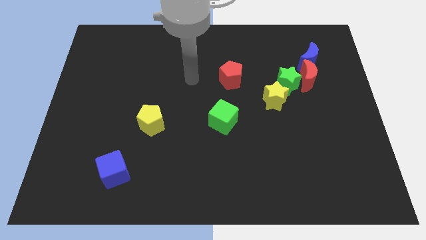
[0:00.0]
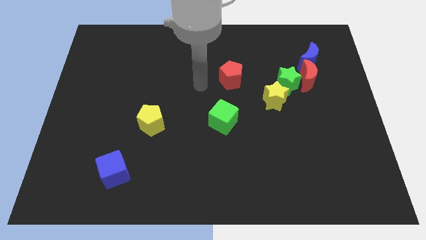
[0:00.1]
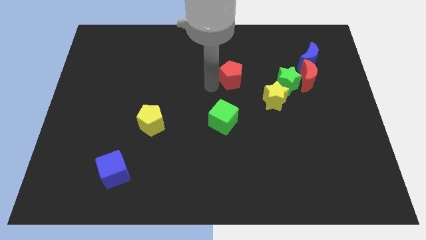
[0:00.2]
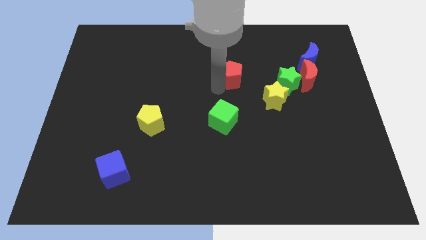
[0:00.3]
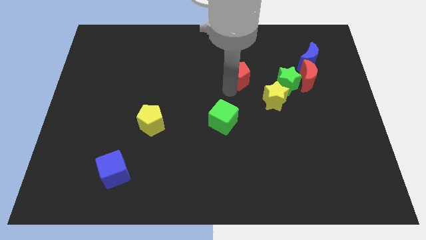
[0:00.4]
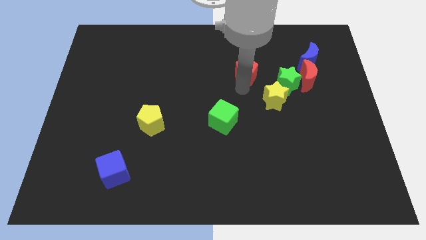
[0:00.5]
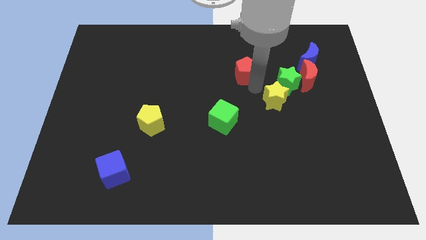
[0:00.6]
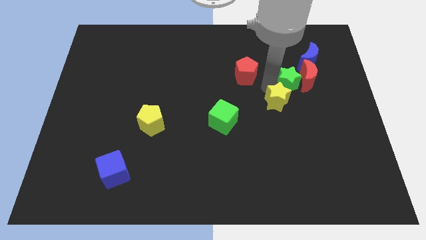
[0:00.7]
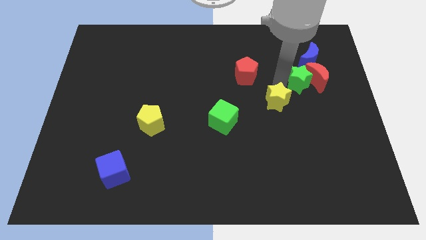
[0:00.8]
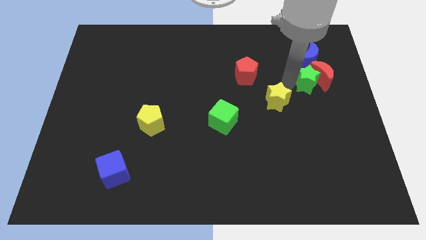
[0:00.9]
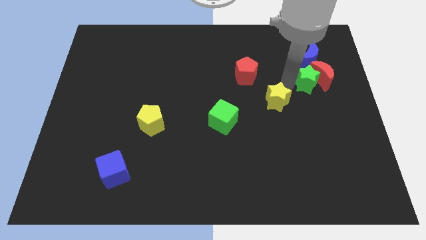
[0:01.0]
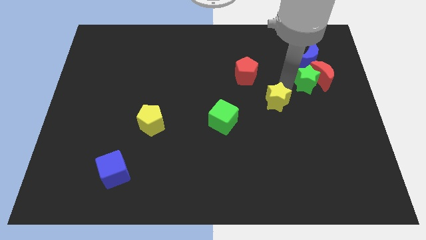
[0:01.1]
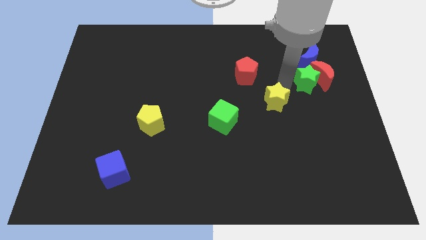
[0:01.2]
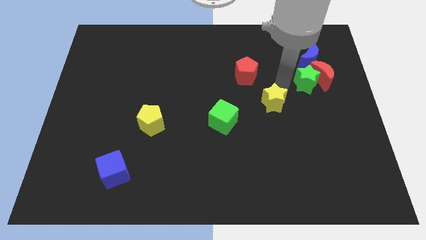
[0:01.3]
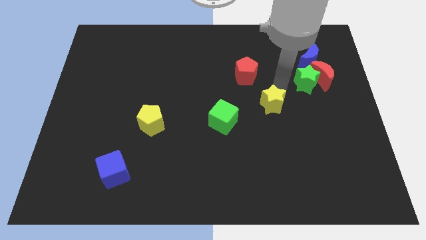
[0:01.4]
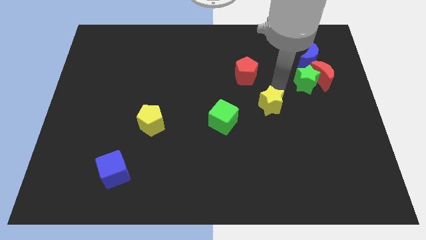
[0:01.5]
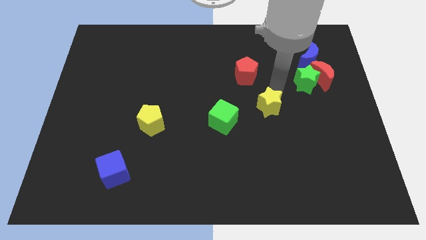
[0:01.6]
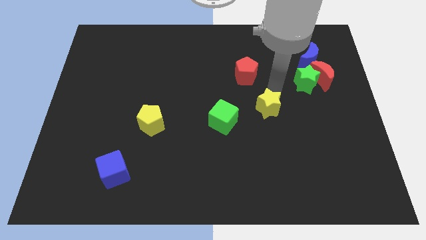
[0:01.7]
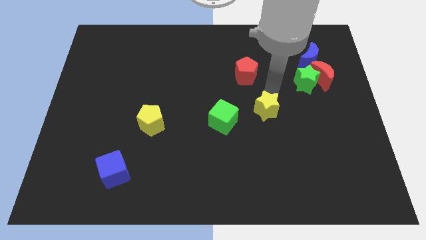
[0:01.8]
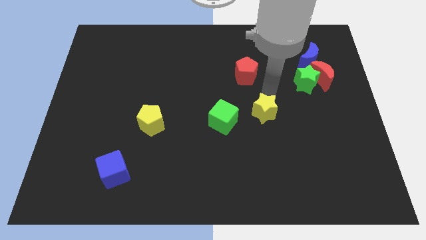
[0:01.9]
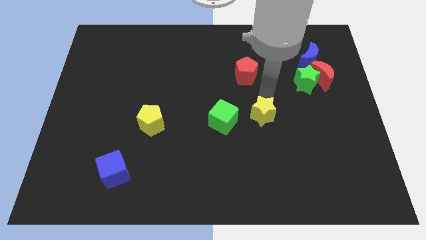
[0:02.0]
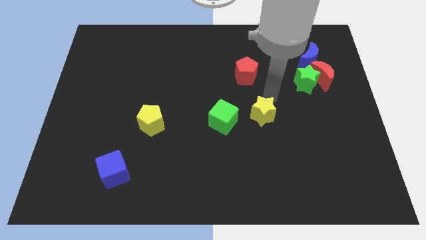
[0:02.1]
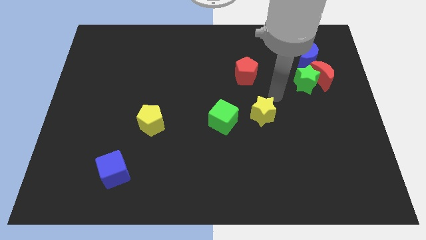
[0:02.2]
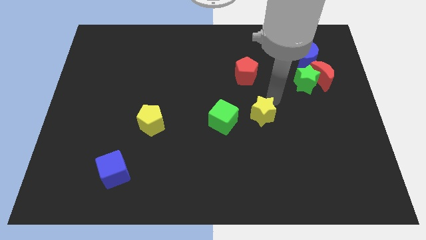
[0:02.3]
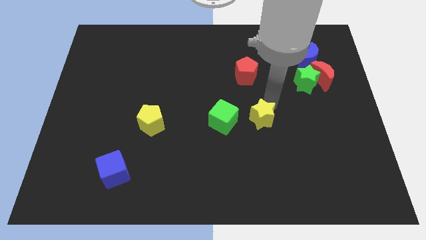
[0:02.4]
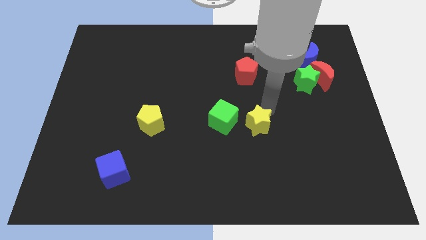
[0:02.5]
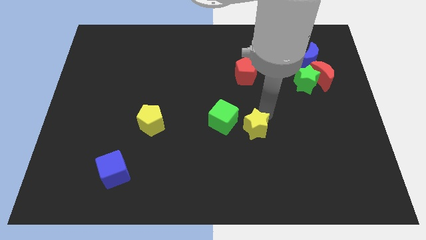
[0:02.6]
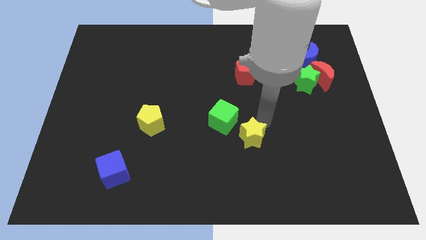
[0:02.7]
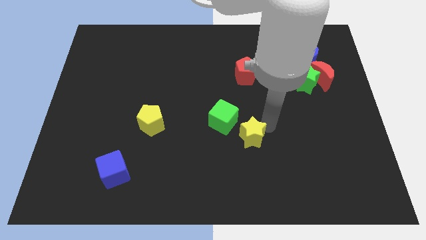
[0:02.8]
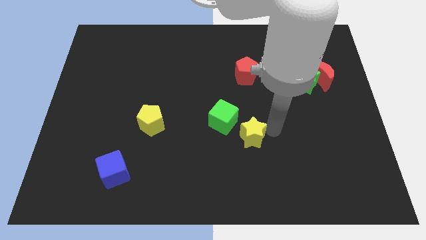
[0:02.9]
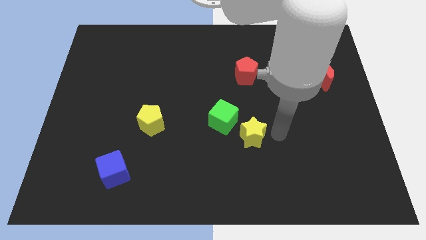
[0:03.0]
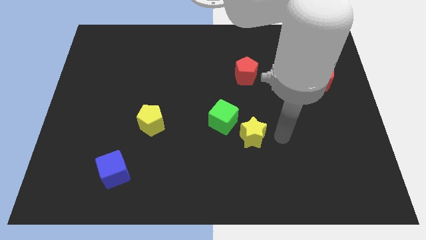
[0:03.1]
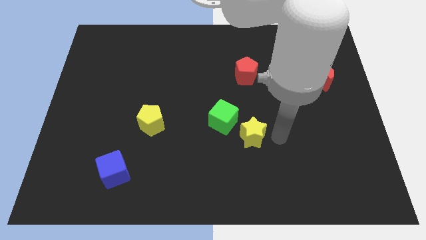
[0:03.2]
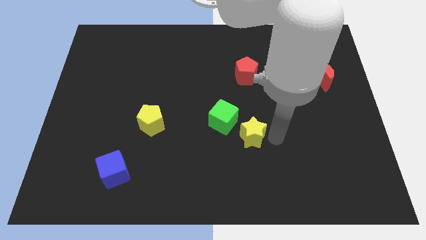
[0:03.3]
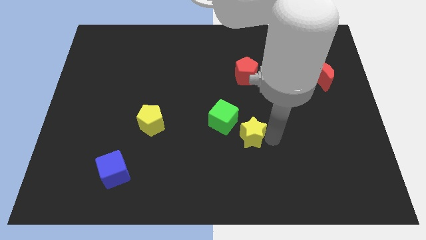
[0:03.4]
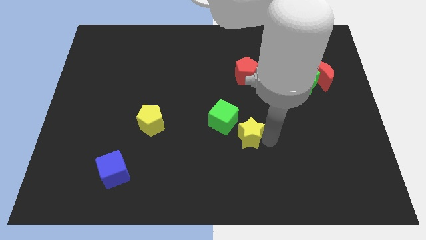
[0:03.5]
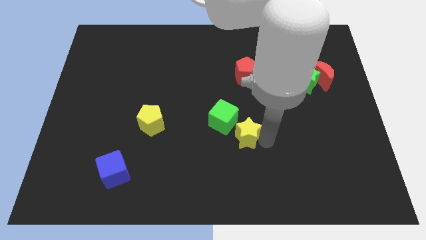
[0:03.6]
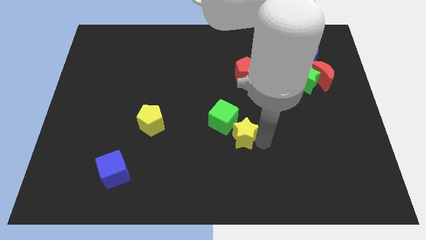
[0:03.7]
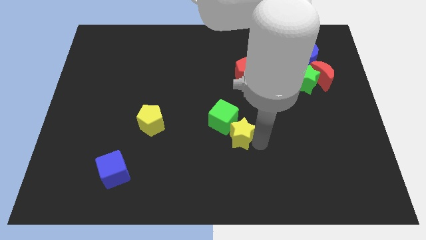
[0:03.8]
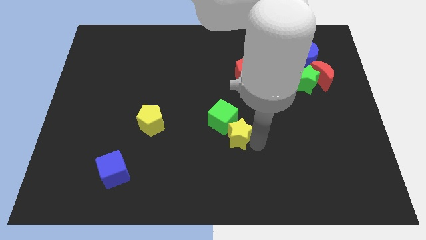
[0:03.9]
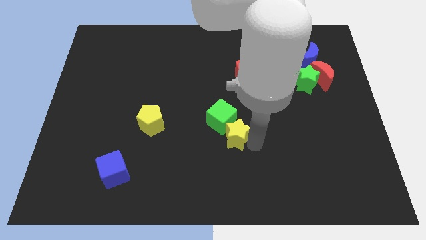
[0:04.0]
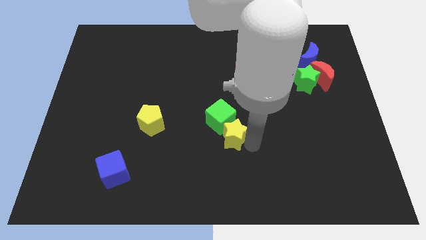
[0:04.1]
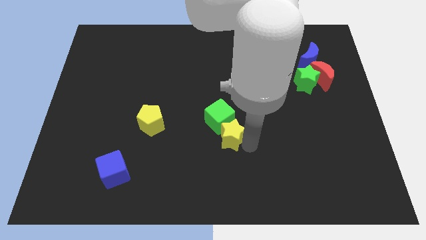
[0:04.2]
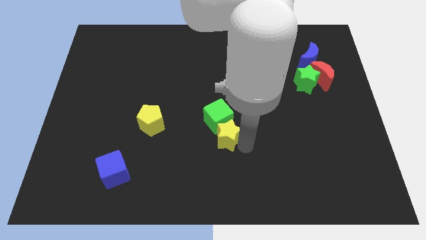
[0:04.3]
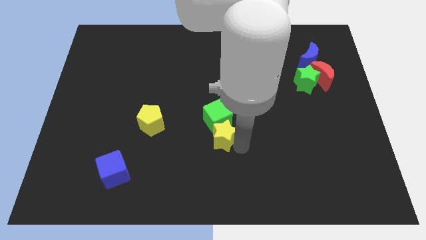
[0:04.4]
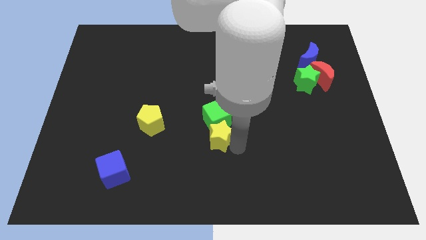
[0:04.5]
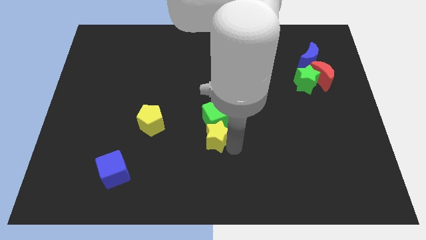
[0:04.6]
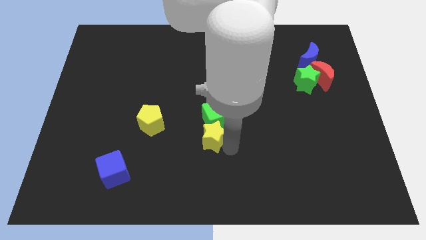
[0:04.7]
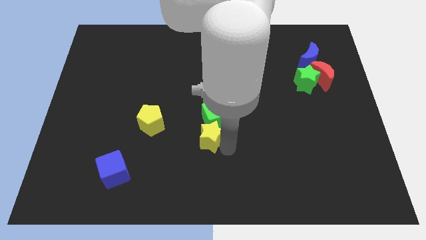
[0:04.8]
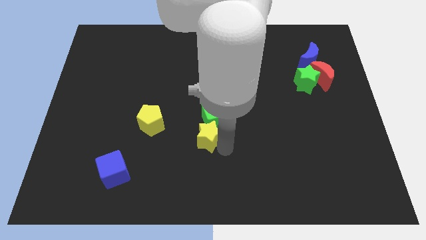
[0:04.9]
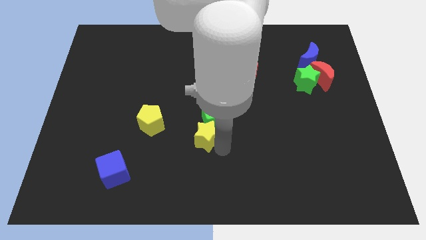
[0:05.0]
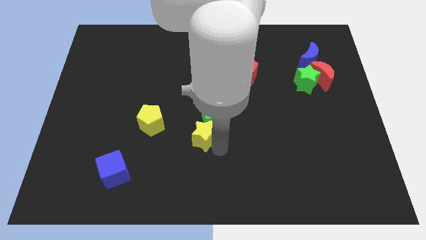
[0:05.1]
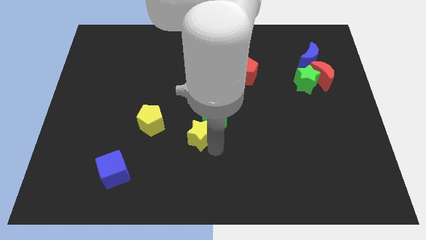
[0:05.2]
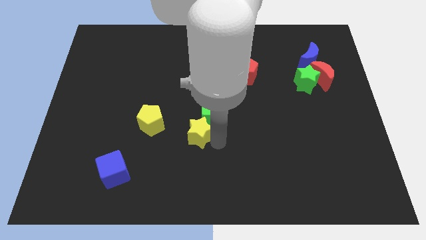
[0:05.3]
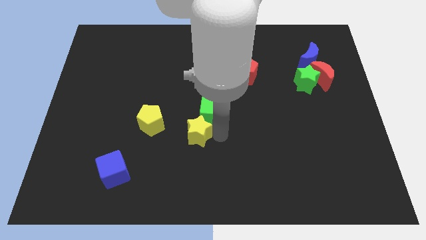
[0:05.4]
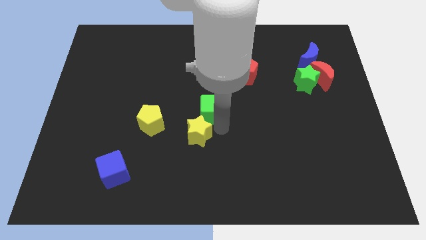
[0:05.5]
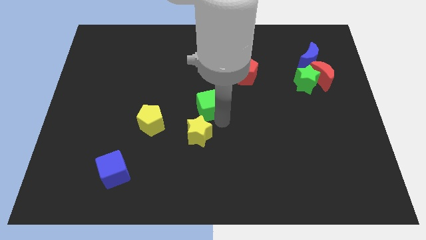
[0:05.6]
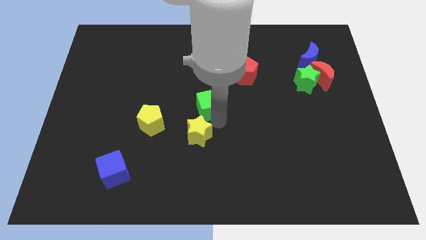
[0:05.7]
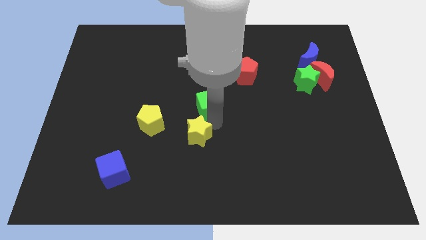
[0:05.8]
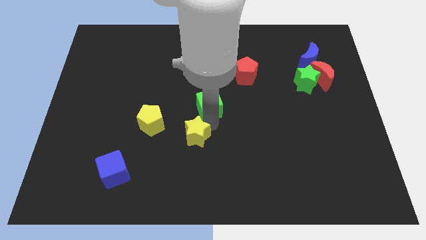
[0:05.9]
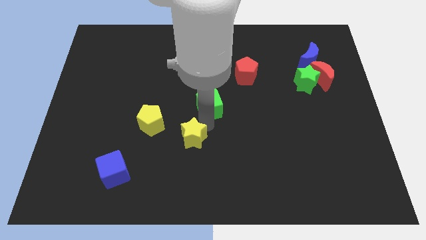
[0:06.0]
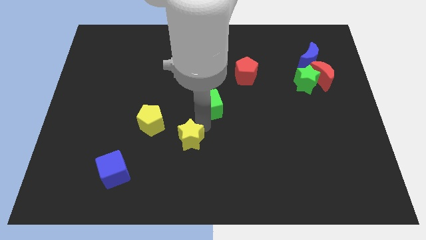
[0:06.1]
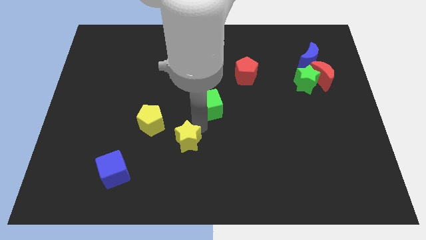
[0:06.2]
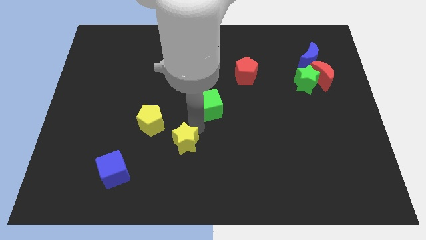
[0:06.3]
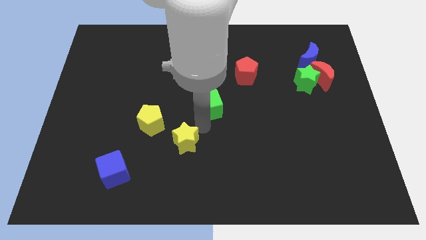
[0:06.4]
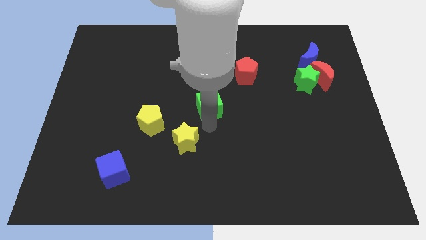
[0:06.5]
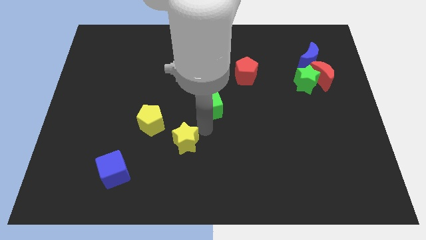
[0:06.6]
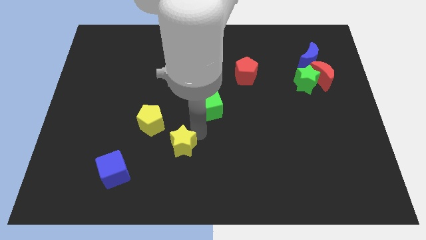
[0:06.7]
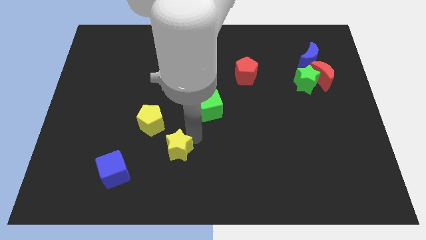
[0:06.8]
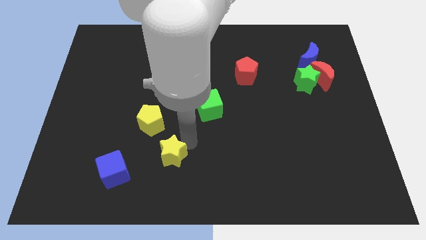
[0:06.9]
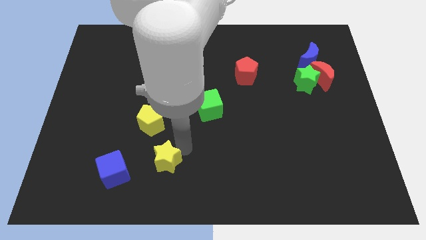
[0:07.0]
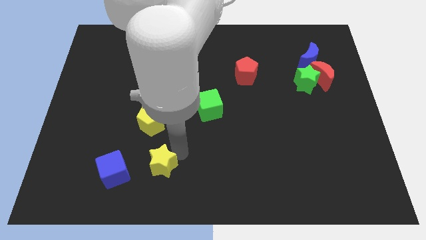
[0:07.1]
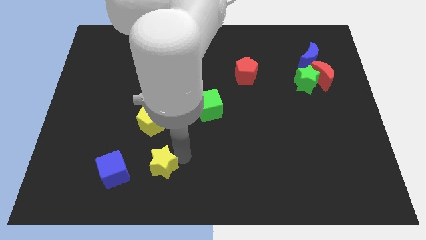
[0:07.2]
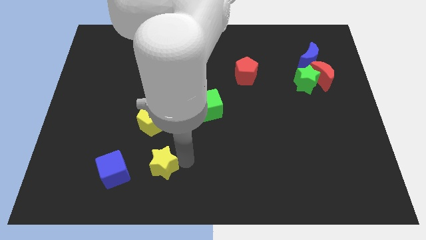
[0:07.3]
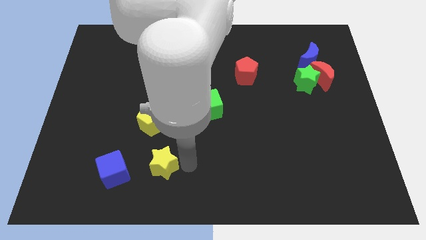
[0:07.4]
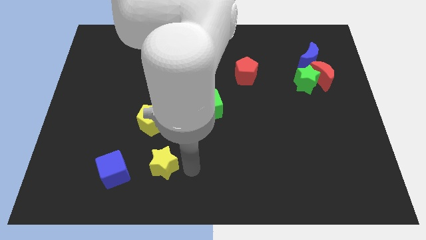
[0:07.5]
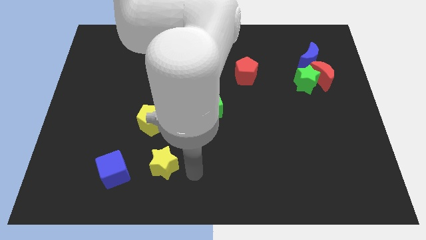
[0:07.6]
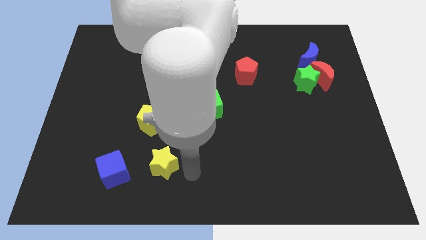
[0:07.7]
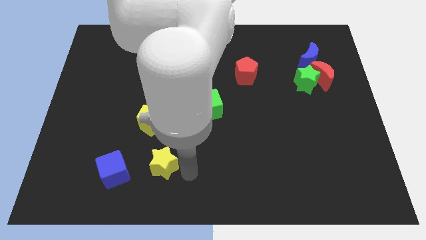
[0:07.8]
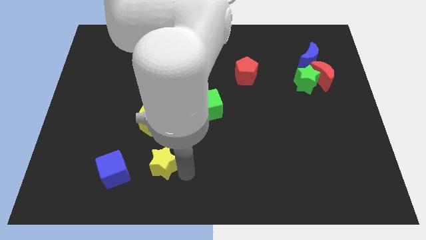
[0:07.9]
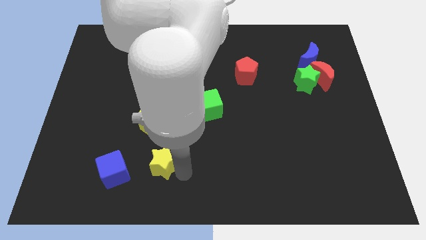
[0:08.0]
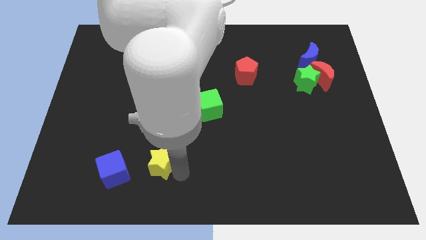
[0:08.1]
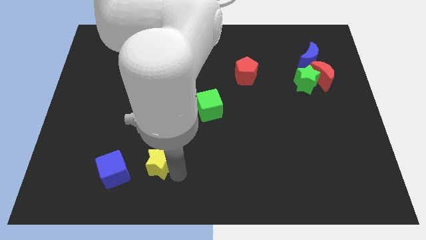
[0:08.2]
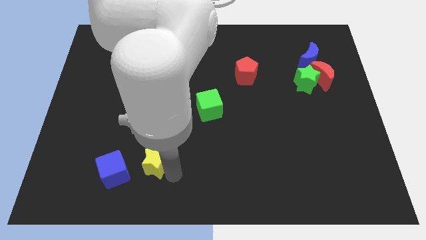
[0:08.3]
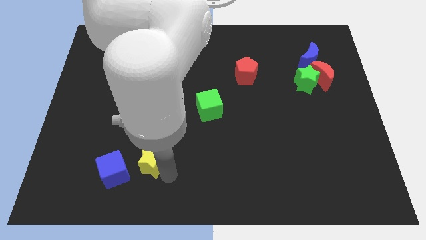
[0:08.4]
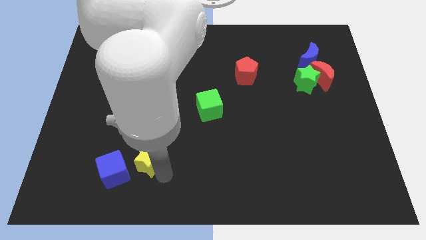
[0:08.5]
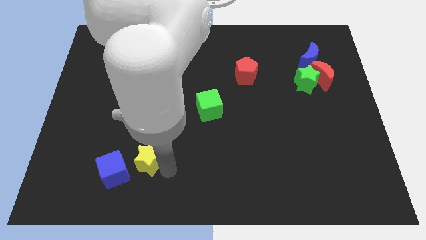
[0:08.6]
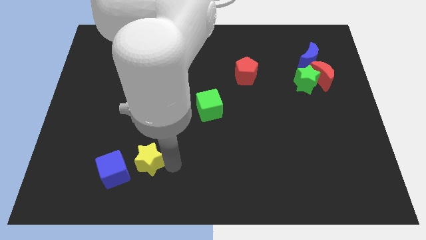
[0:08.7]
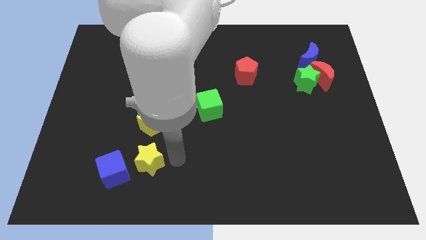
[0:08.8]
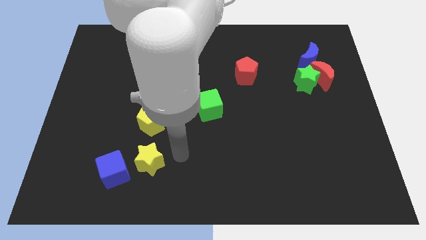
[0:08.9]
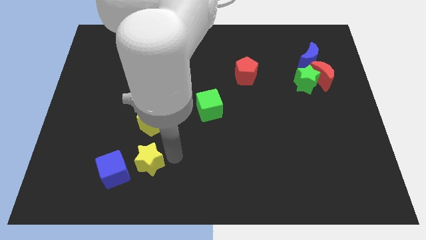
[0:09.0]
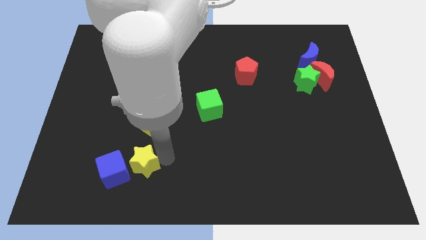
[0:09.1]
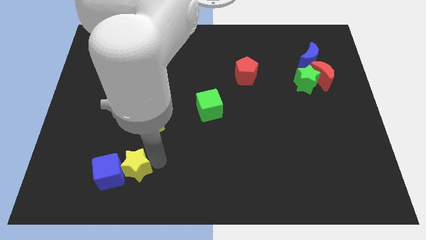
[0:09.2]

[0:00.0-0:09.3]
put the yellow star to the blue cube
